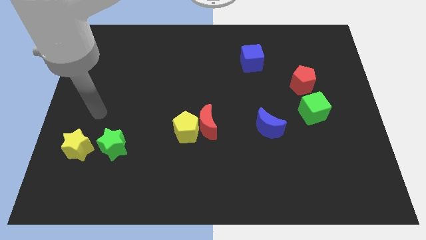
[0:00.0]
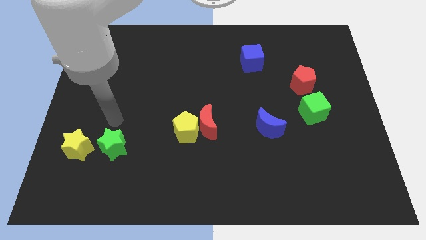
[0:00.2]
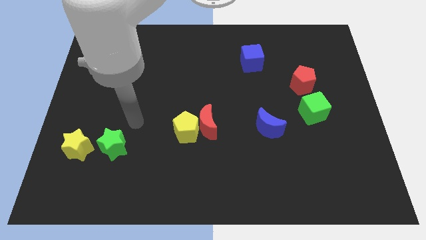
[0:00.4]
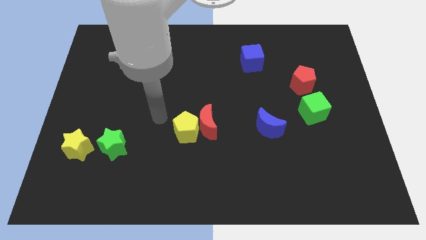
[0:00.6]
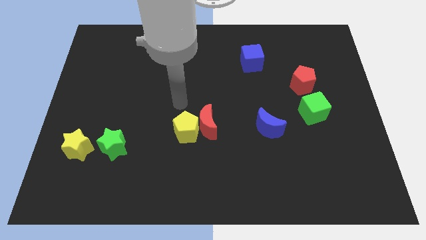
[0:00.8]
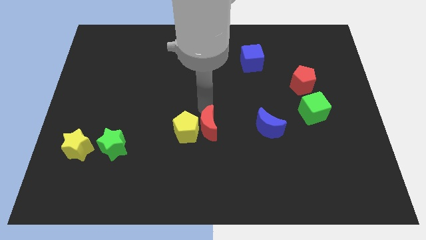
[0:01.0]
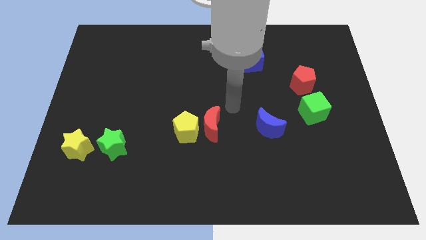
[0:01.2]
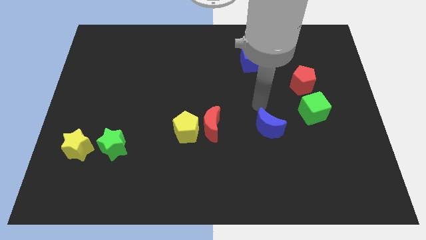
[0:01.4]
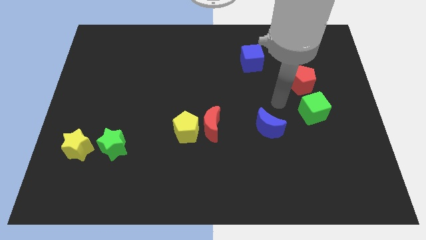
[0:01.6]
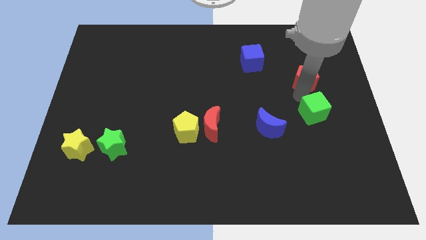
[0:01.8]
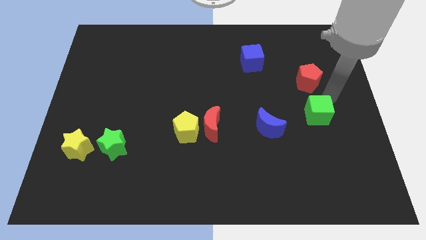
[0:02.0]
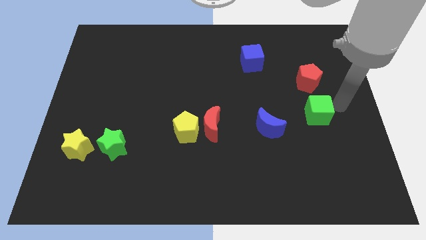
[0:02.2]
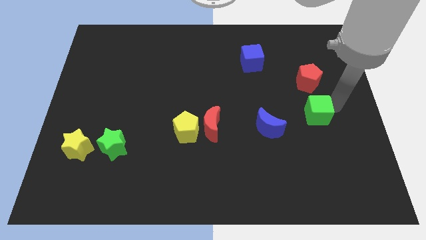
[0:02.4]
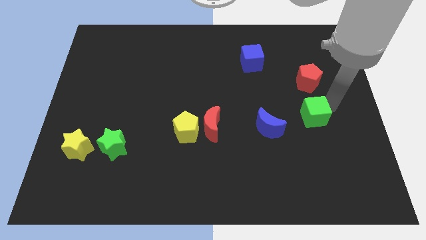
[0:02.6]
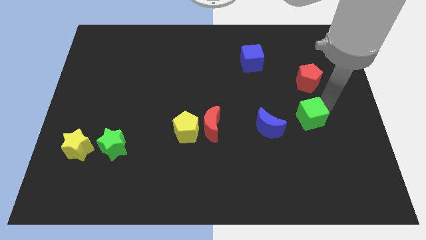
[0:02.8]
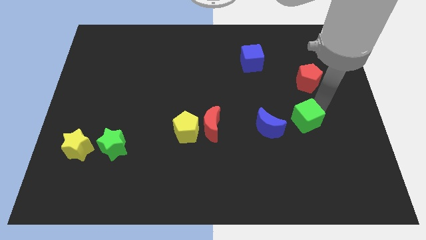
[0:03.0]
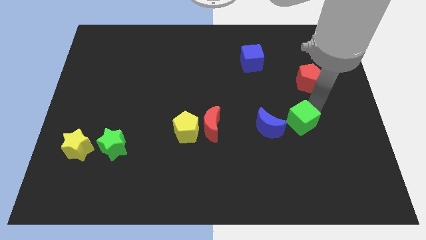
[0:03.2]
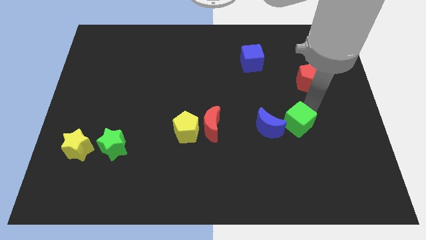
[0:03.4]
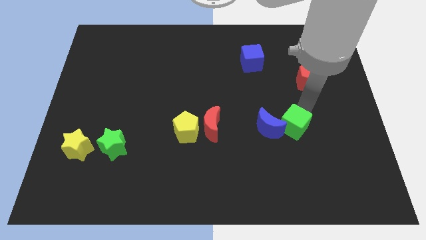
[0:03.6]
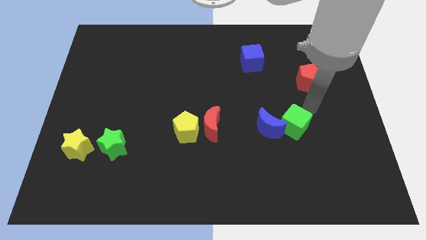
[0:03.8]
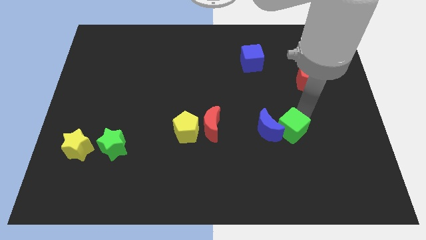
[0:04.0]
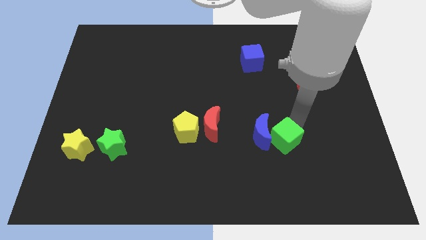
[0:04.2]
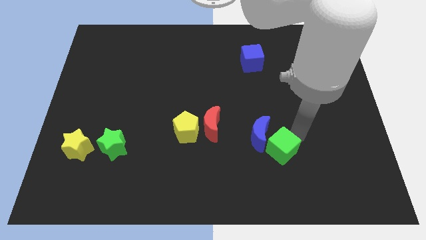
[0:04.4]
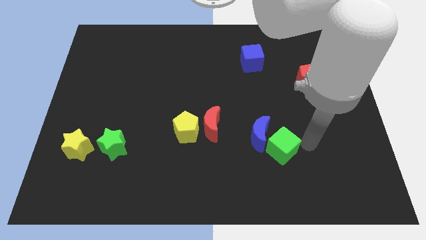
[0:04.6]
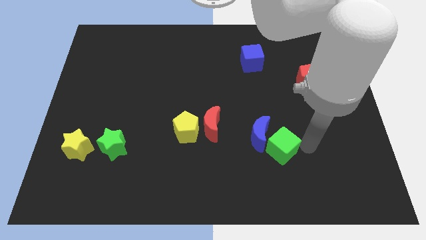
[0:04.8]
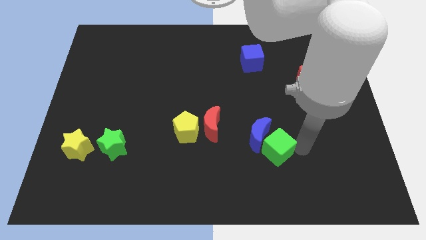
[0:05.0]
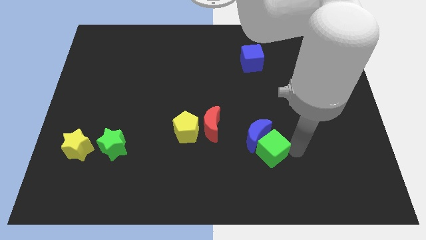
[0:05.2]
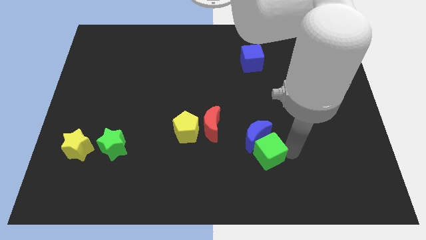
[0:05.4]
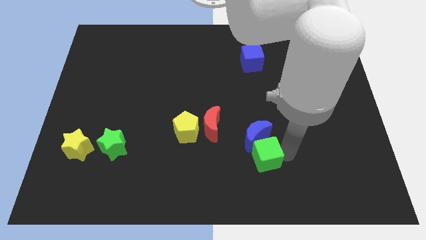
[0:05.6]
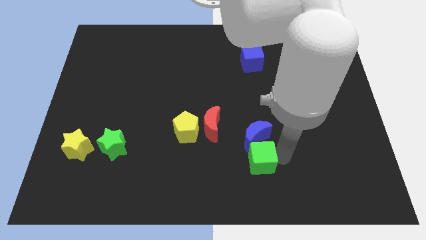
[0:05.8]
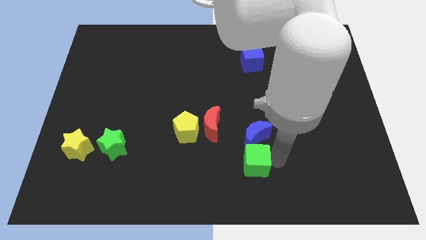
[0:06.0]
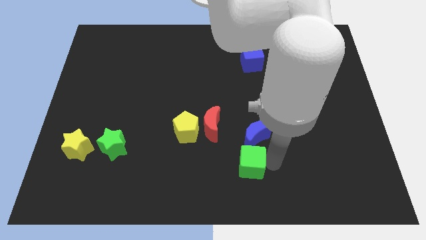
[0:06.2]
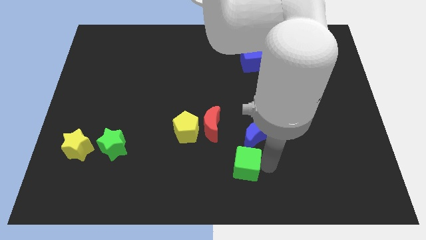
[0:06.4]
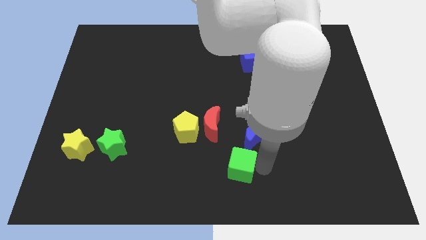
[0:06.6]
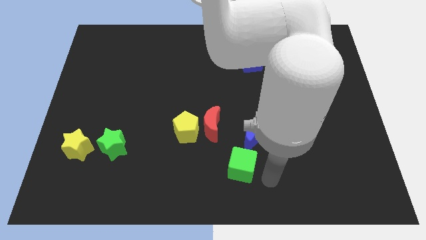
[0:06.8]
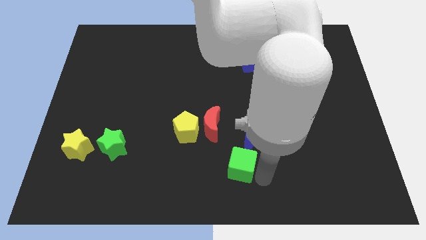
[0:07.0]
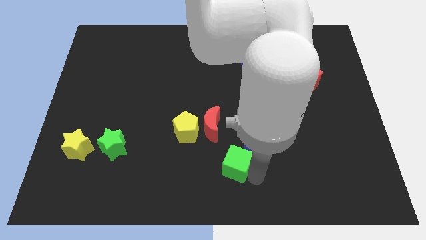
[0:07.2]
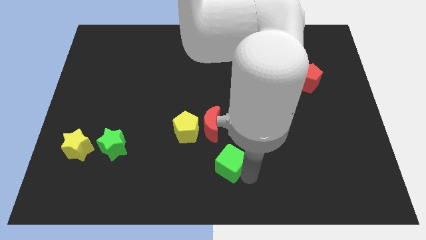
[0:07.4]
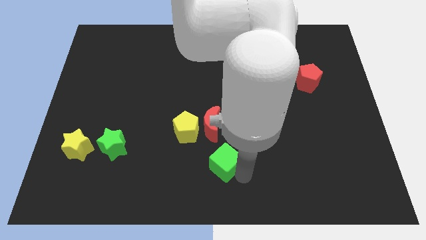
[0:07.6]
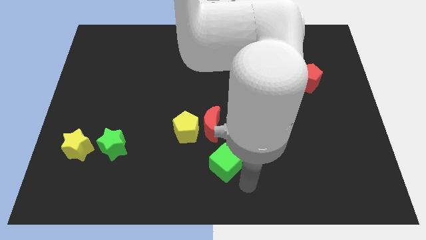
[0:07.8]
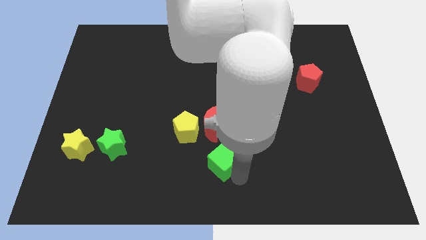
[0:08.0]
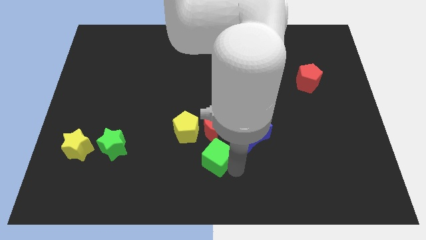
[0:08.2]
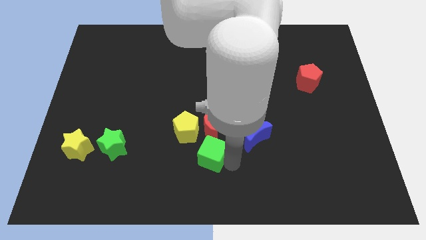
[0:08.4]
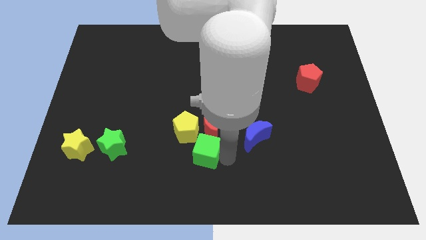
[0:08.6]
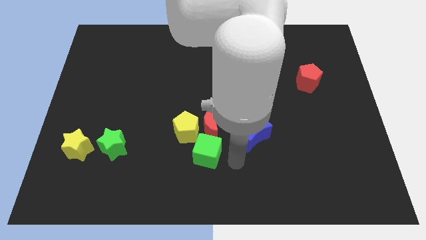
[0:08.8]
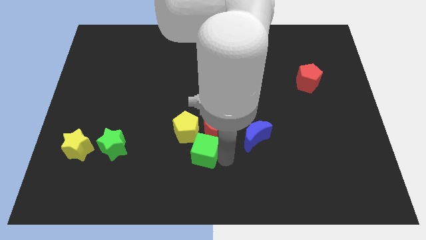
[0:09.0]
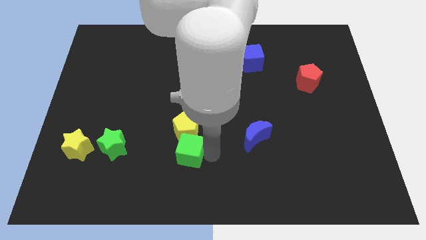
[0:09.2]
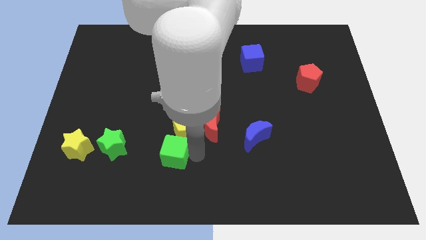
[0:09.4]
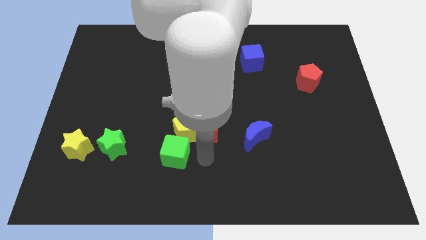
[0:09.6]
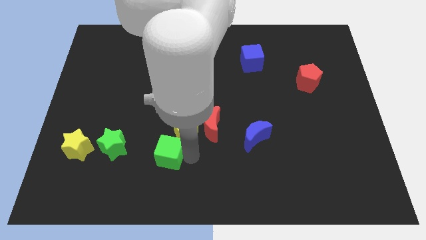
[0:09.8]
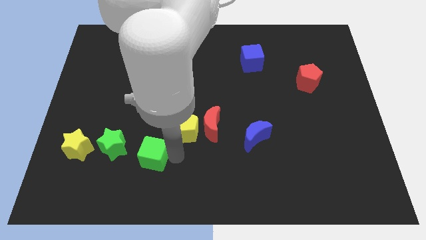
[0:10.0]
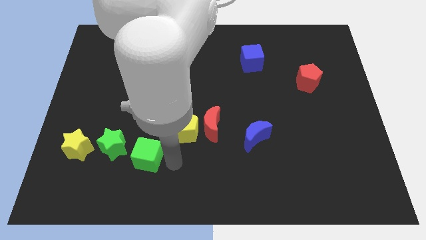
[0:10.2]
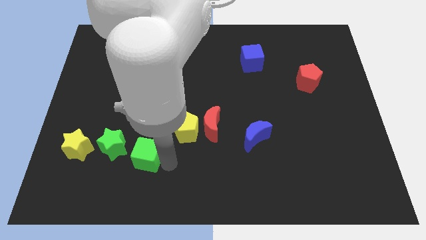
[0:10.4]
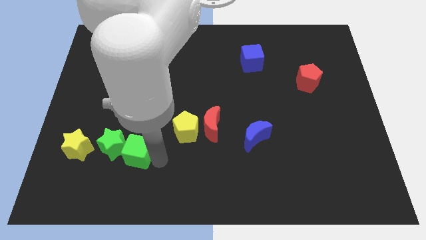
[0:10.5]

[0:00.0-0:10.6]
push the green cube next to the green star

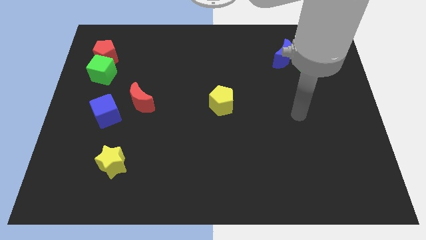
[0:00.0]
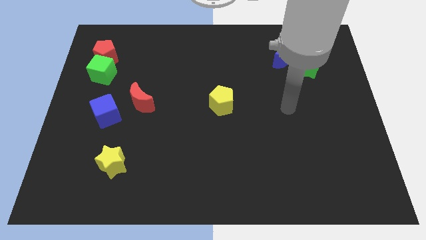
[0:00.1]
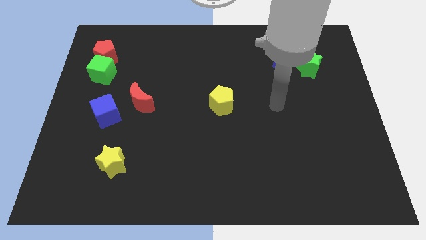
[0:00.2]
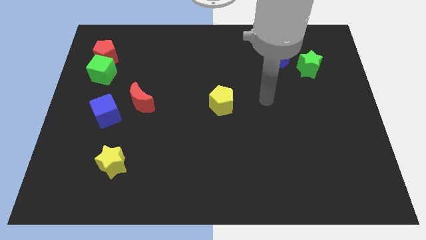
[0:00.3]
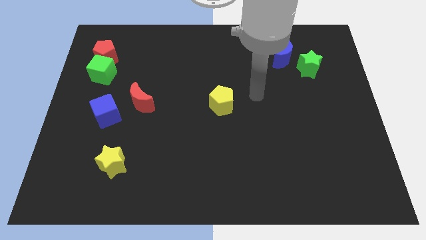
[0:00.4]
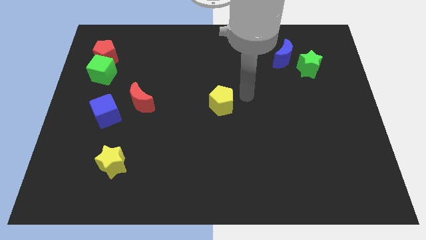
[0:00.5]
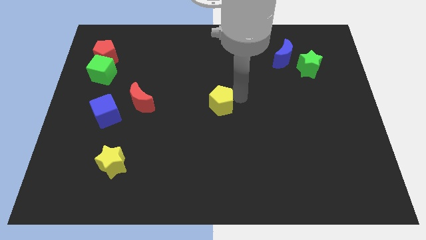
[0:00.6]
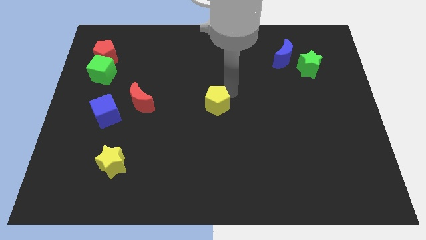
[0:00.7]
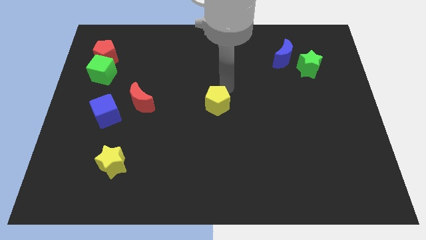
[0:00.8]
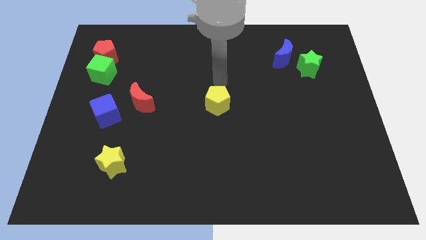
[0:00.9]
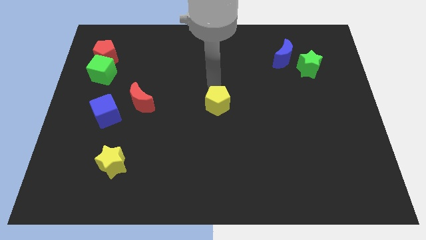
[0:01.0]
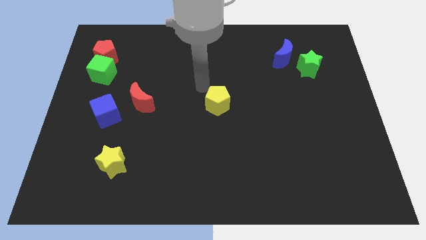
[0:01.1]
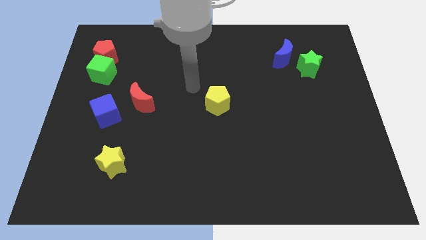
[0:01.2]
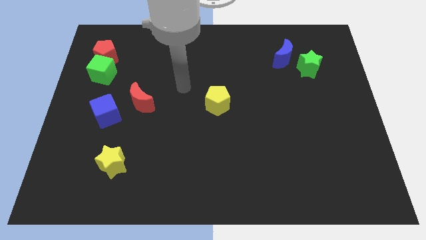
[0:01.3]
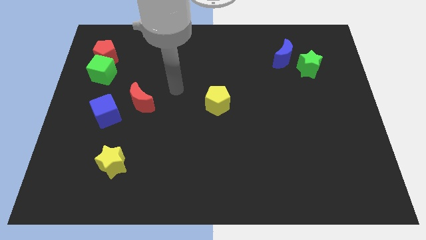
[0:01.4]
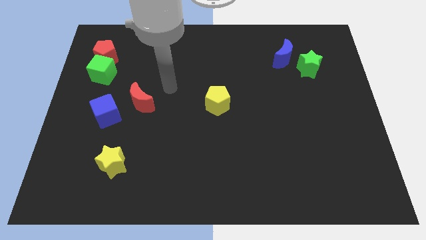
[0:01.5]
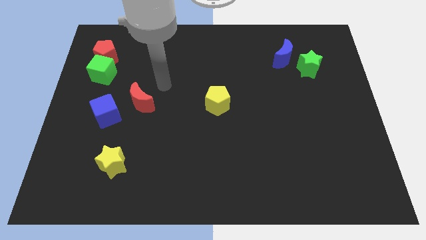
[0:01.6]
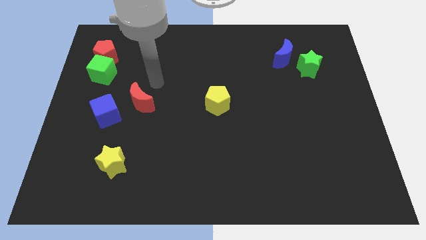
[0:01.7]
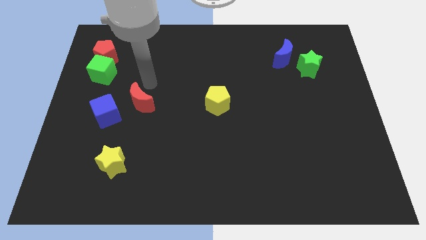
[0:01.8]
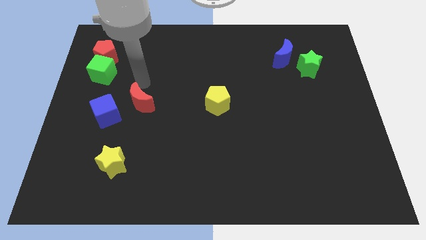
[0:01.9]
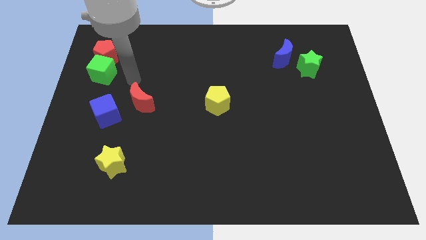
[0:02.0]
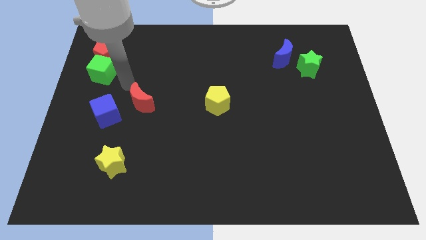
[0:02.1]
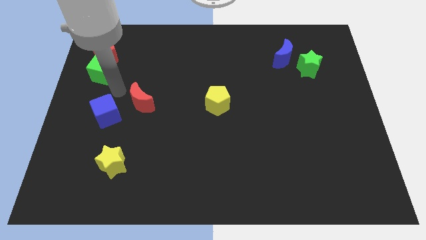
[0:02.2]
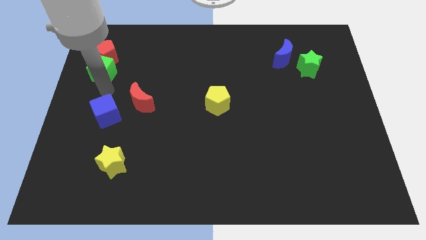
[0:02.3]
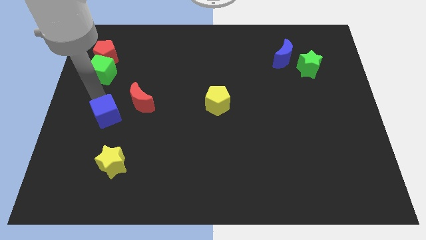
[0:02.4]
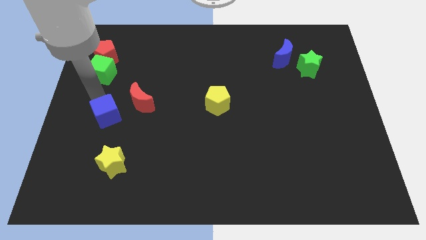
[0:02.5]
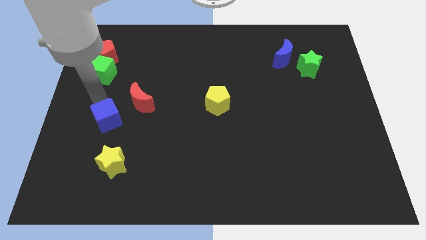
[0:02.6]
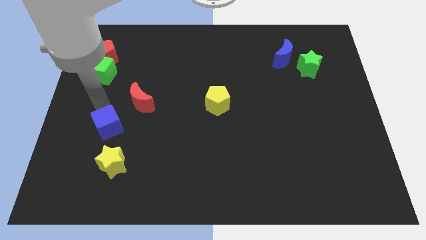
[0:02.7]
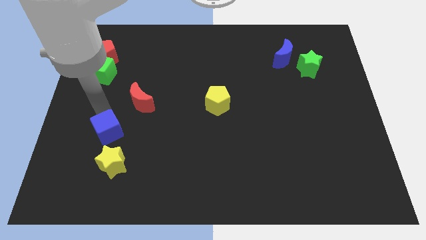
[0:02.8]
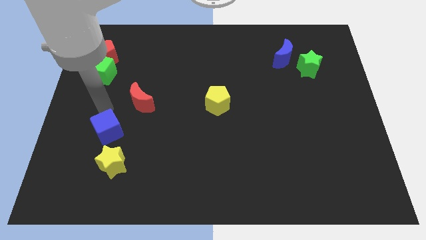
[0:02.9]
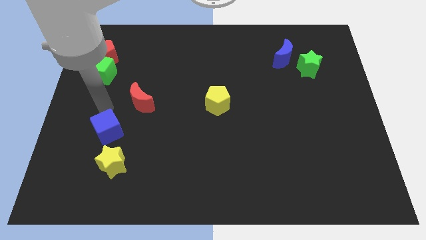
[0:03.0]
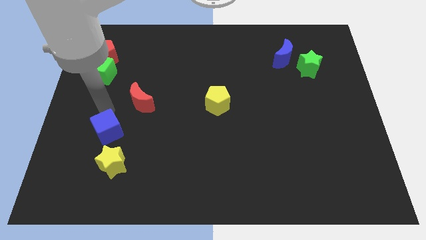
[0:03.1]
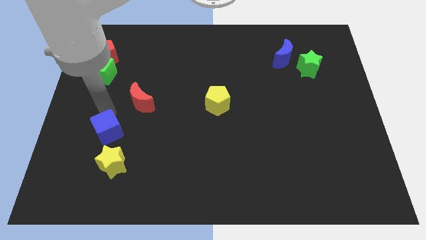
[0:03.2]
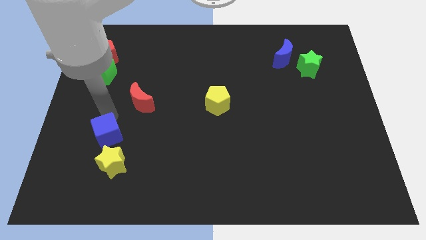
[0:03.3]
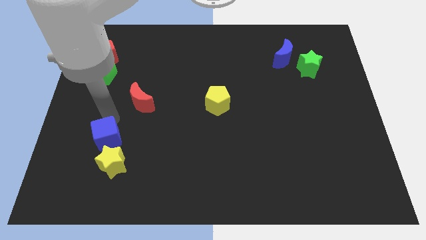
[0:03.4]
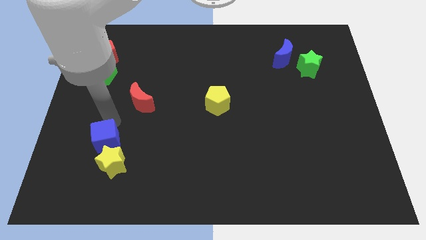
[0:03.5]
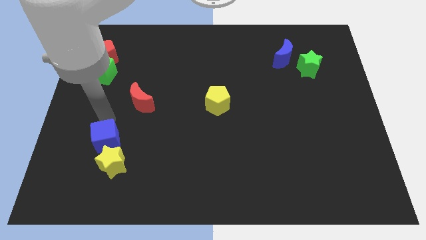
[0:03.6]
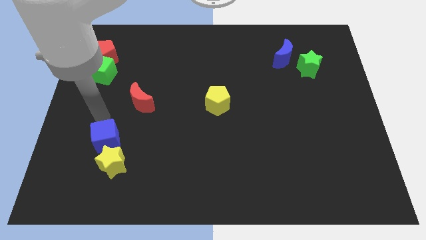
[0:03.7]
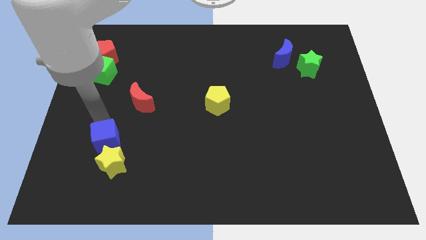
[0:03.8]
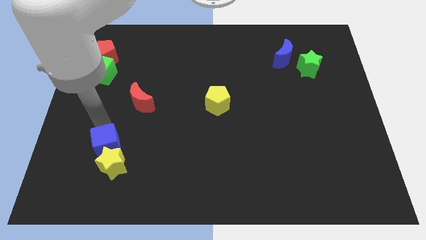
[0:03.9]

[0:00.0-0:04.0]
slide the blue cube to the yellow star
